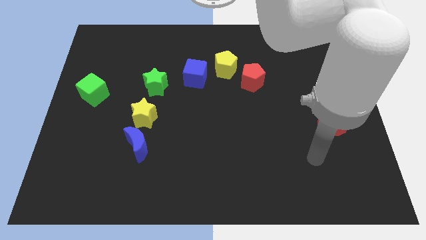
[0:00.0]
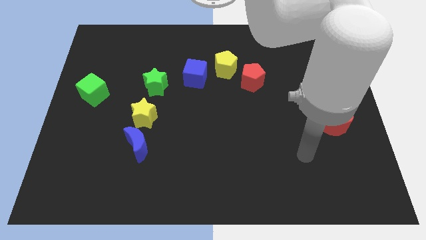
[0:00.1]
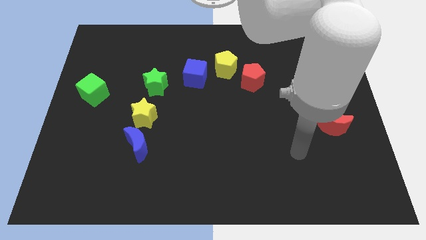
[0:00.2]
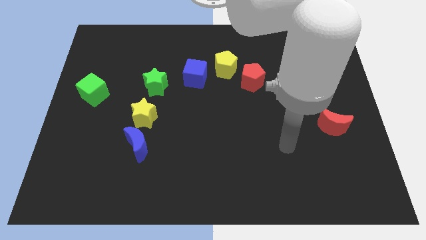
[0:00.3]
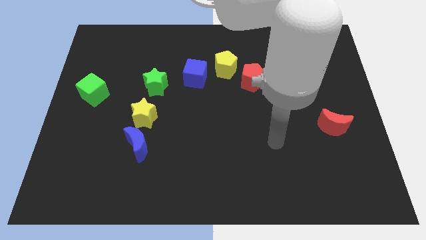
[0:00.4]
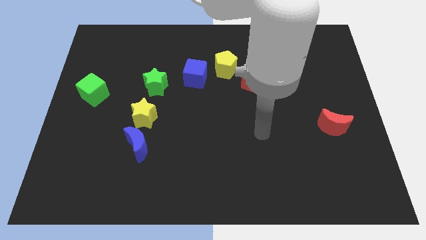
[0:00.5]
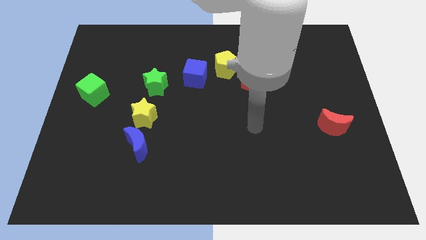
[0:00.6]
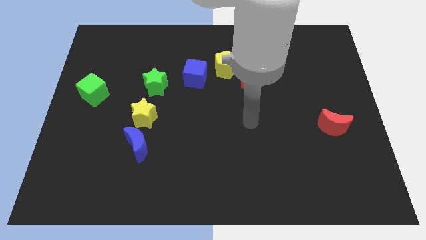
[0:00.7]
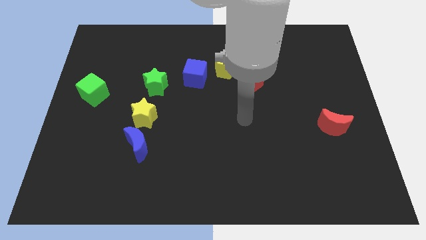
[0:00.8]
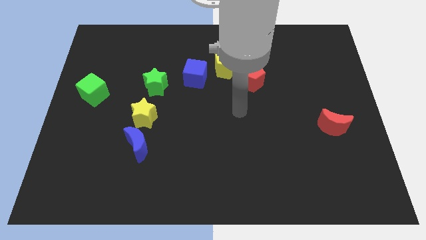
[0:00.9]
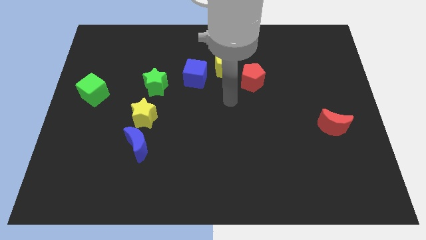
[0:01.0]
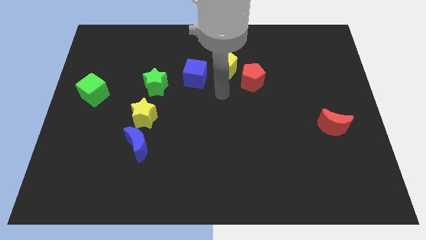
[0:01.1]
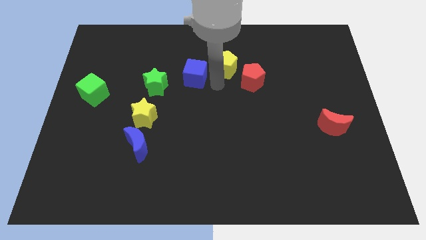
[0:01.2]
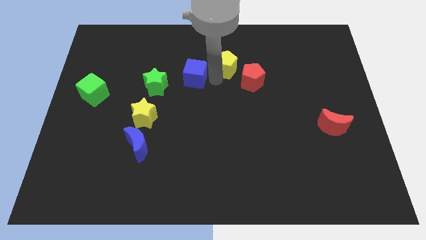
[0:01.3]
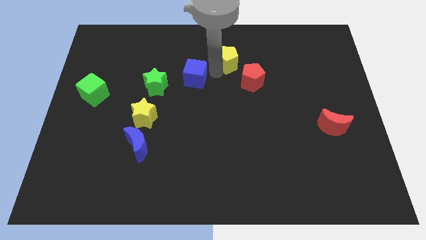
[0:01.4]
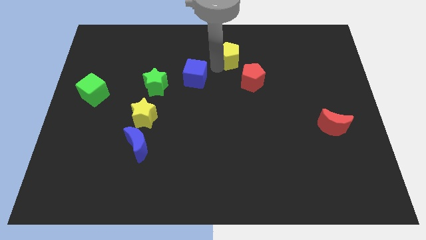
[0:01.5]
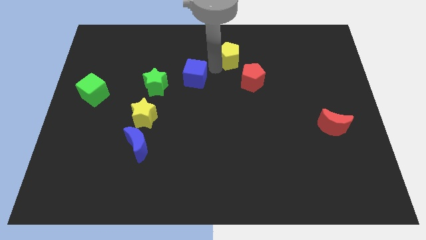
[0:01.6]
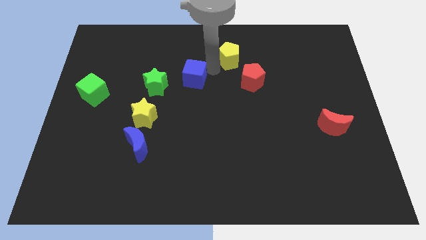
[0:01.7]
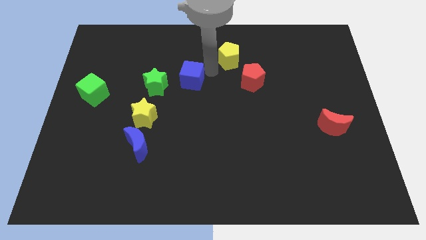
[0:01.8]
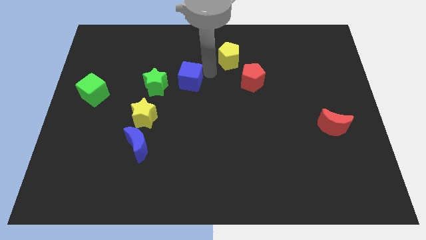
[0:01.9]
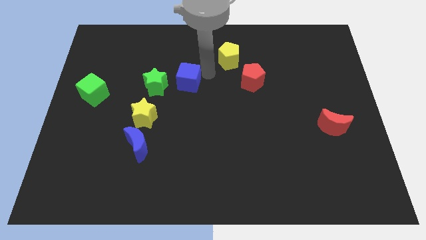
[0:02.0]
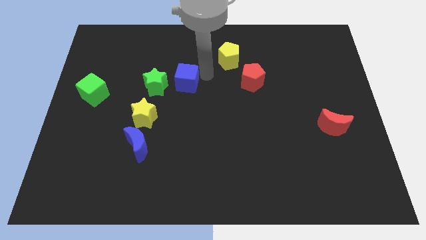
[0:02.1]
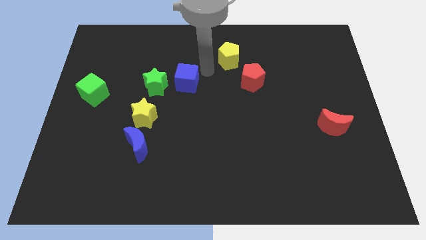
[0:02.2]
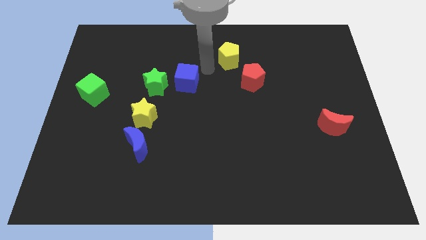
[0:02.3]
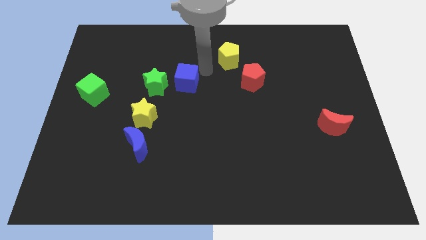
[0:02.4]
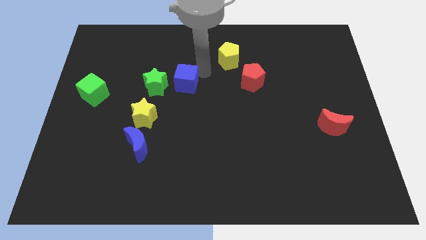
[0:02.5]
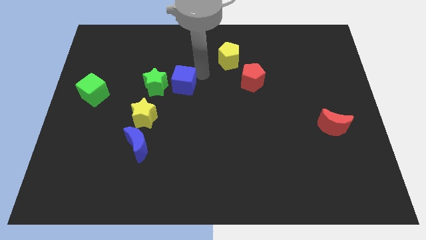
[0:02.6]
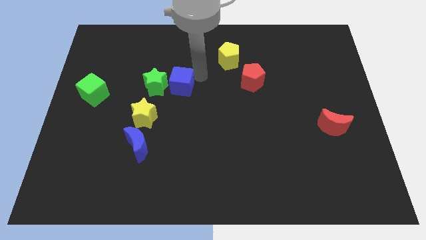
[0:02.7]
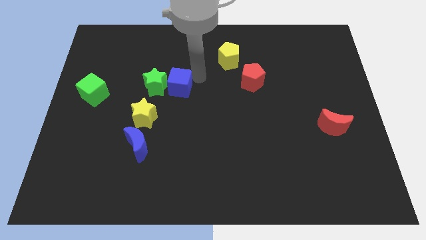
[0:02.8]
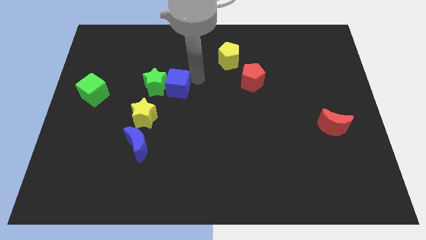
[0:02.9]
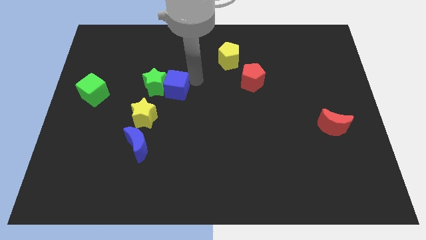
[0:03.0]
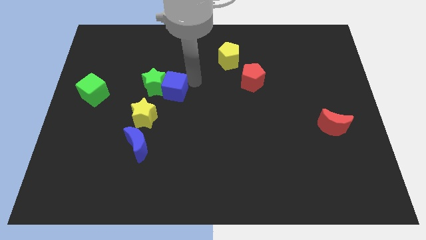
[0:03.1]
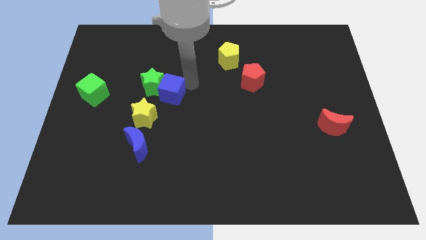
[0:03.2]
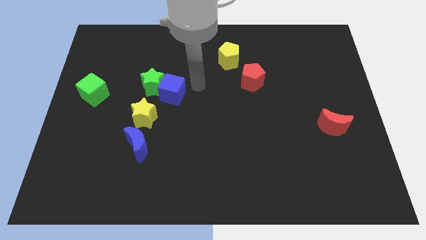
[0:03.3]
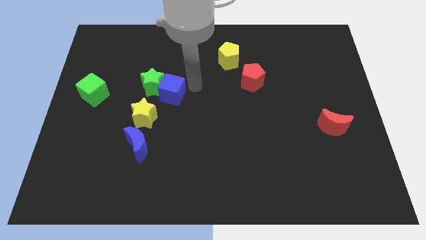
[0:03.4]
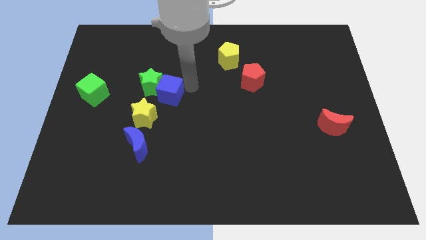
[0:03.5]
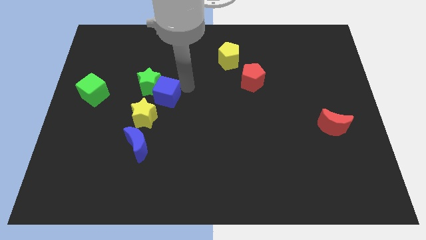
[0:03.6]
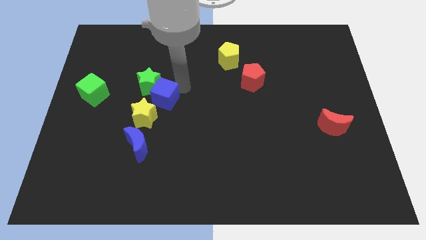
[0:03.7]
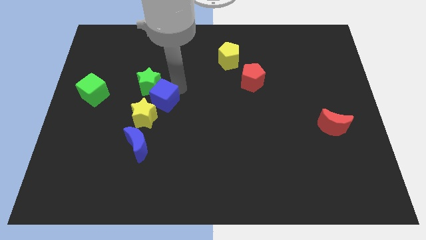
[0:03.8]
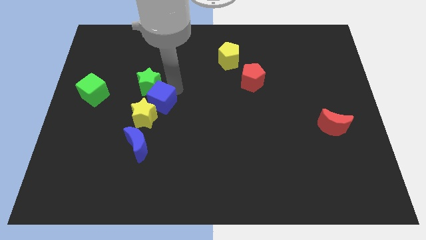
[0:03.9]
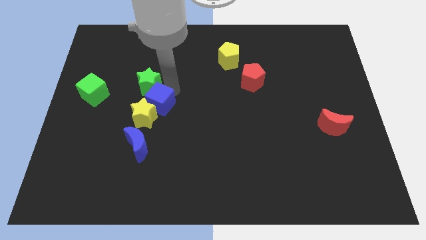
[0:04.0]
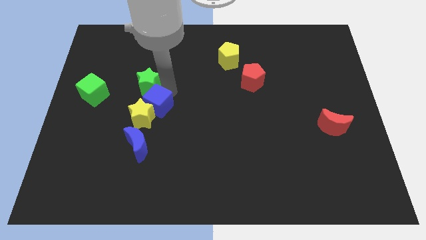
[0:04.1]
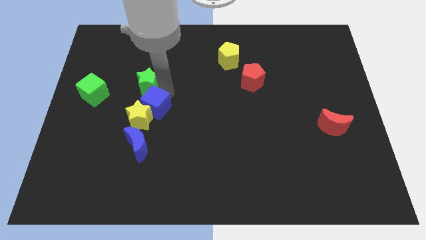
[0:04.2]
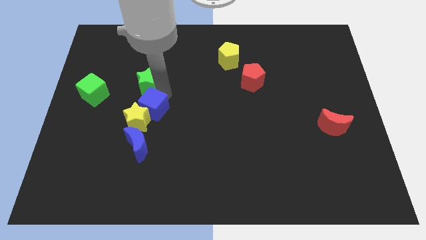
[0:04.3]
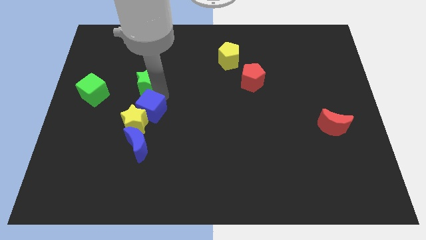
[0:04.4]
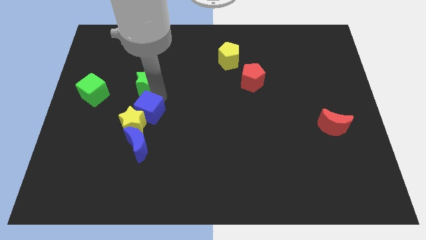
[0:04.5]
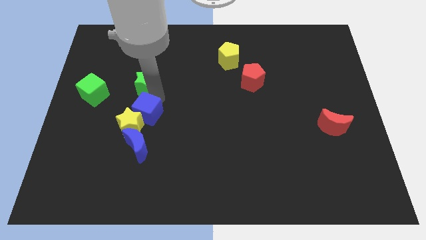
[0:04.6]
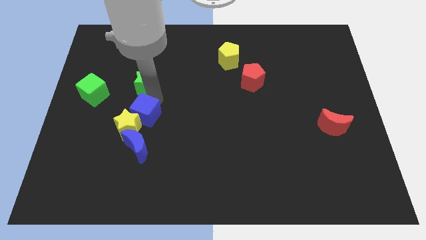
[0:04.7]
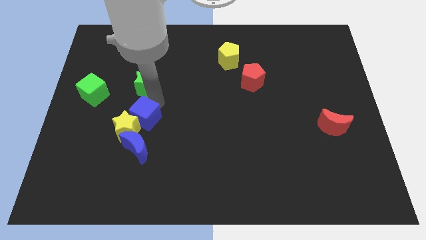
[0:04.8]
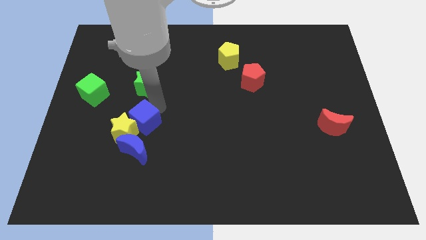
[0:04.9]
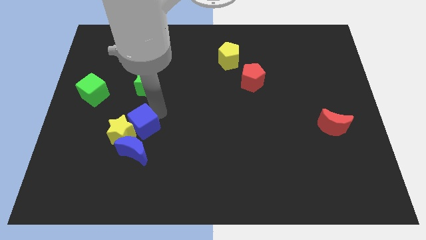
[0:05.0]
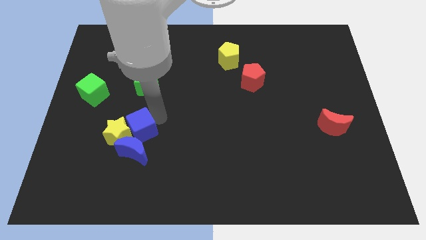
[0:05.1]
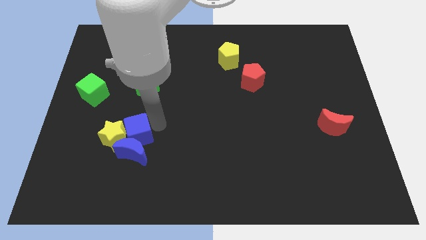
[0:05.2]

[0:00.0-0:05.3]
push the blue cube downwards and left diagonally

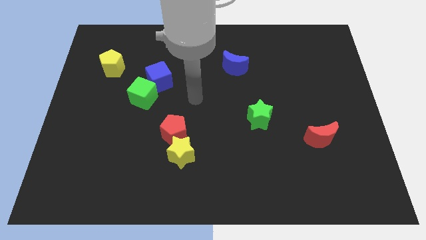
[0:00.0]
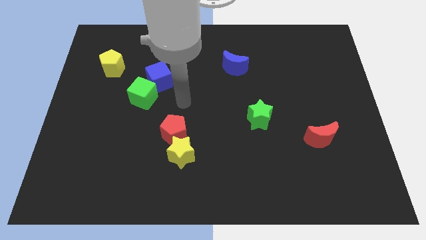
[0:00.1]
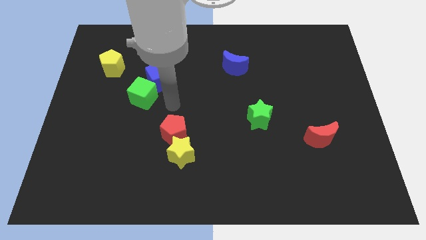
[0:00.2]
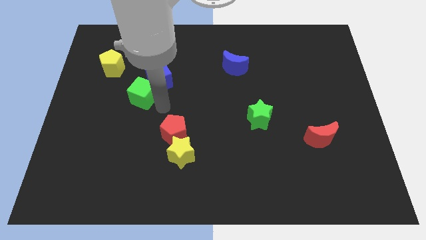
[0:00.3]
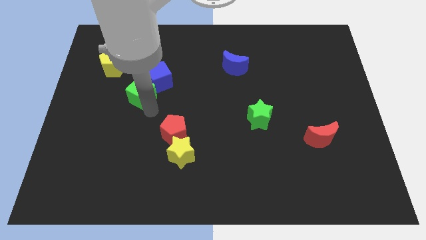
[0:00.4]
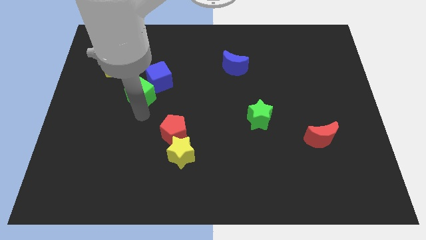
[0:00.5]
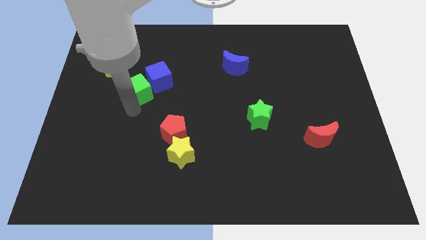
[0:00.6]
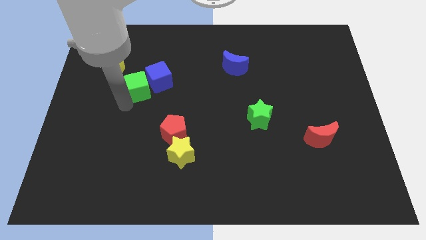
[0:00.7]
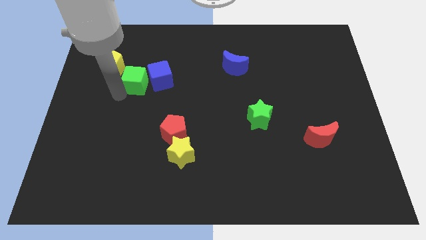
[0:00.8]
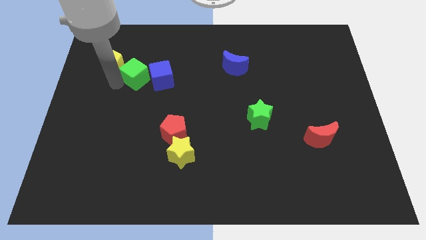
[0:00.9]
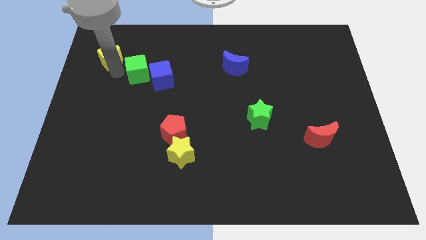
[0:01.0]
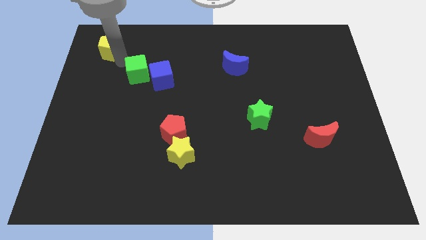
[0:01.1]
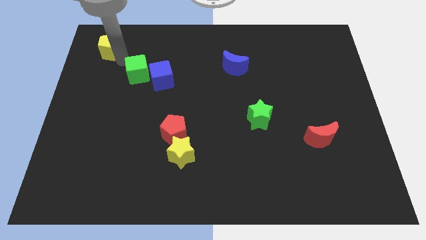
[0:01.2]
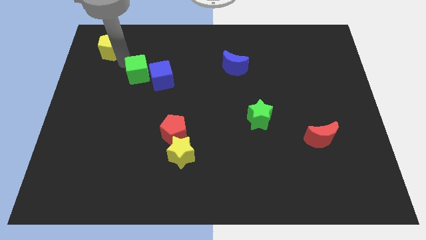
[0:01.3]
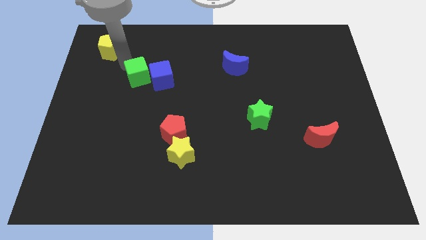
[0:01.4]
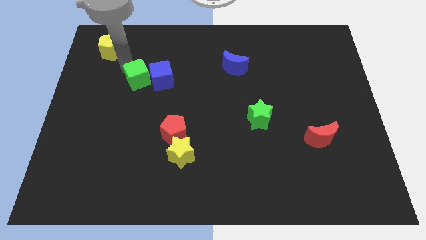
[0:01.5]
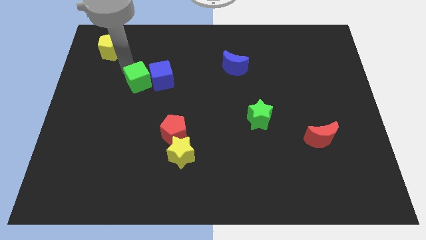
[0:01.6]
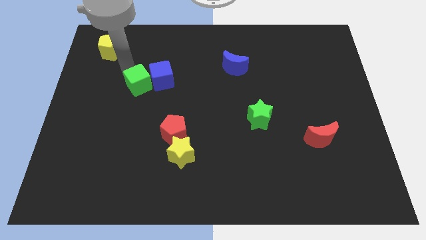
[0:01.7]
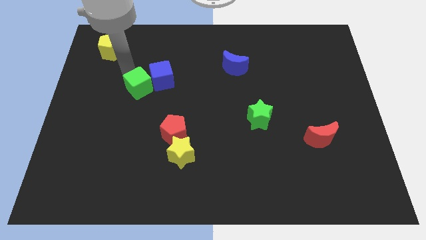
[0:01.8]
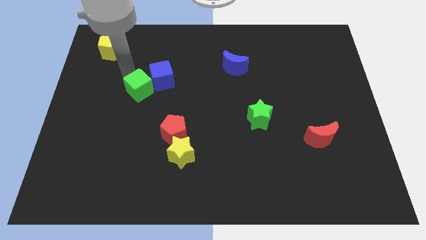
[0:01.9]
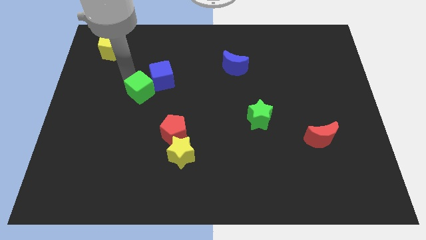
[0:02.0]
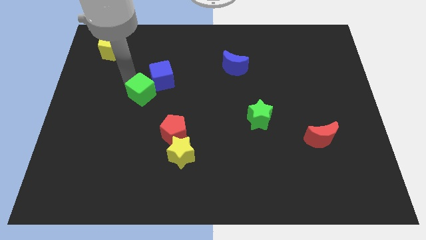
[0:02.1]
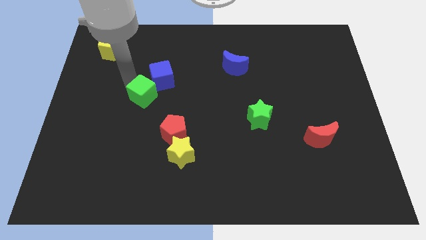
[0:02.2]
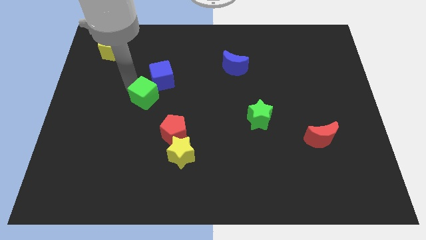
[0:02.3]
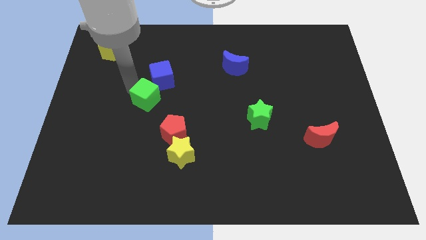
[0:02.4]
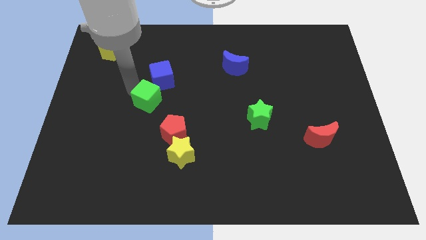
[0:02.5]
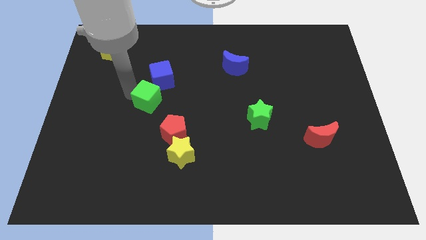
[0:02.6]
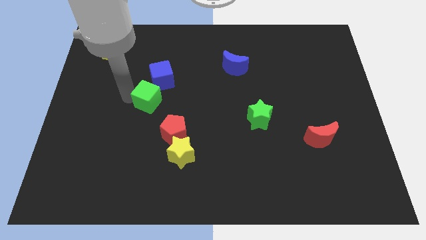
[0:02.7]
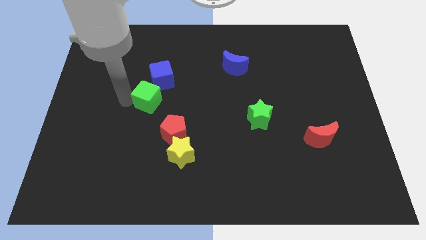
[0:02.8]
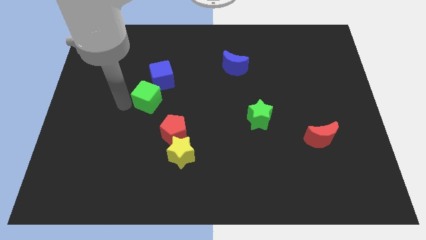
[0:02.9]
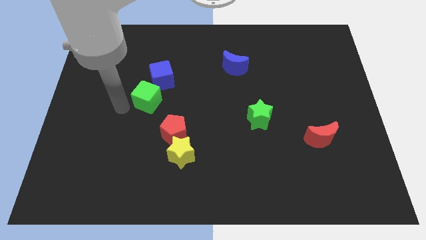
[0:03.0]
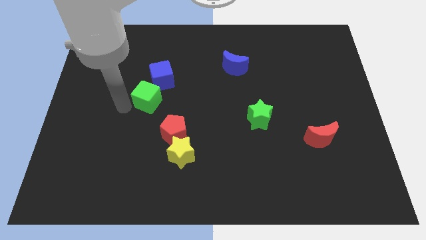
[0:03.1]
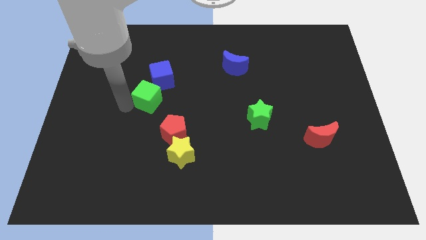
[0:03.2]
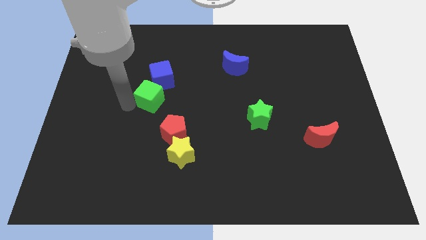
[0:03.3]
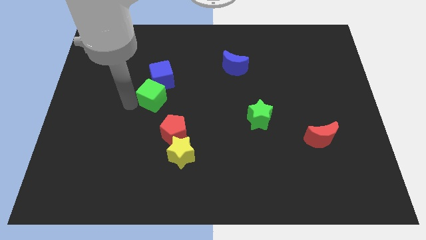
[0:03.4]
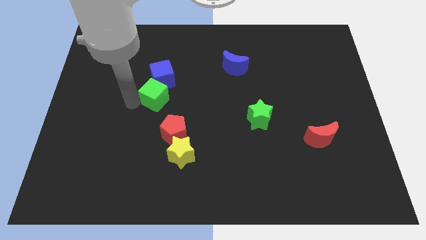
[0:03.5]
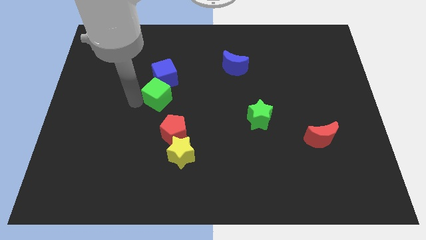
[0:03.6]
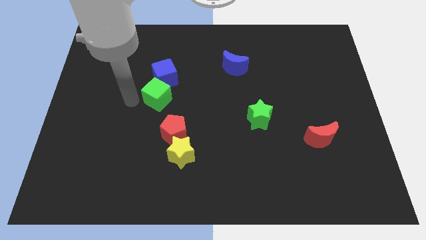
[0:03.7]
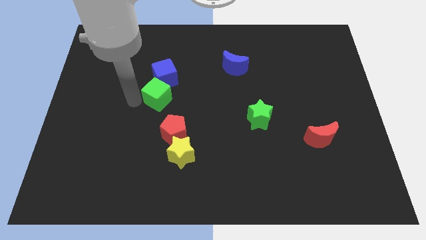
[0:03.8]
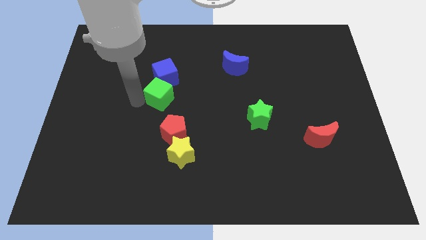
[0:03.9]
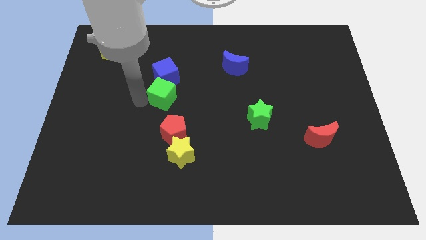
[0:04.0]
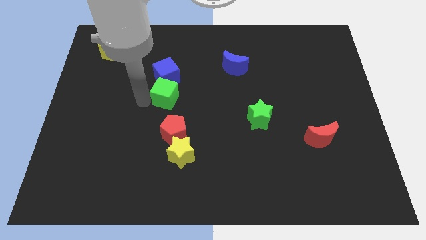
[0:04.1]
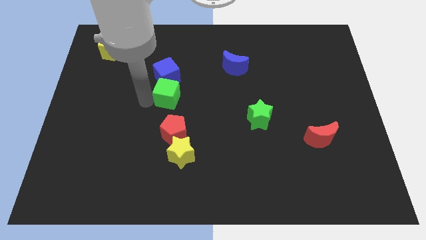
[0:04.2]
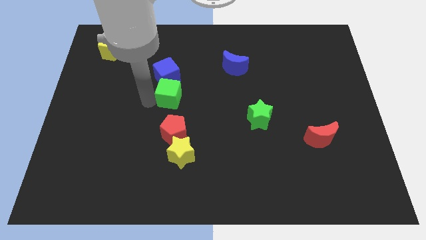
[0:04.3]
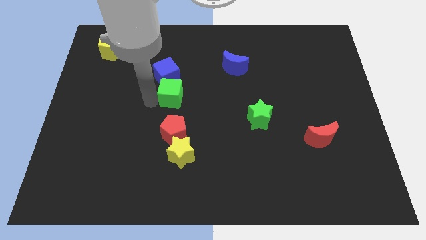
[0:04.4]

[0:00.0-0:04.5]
push the green cube right a little bit
